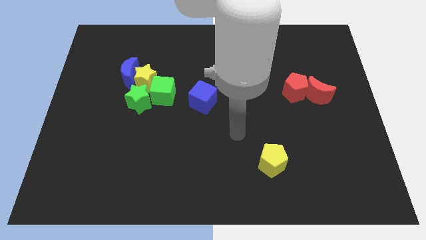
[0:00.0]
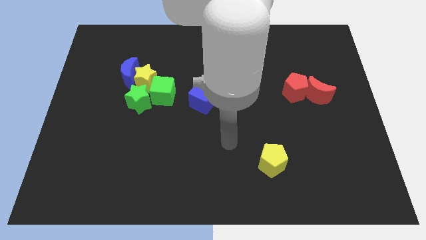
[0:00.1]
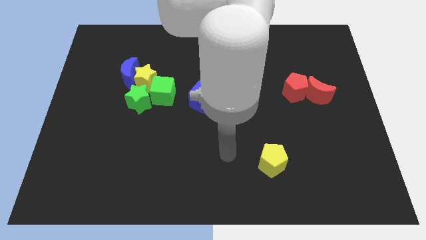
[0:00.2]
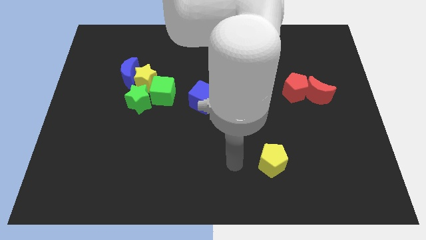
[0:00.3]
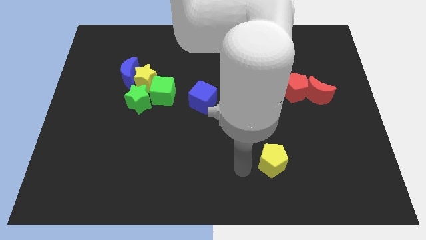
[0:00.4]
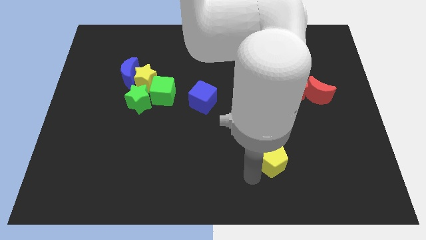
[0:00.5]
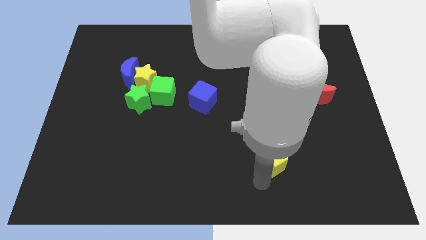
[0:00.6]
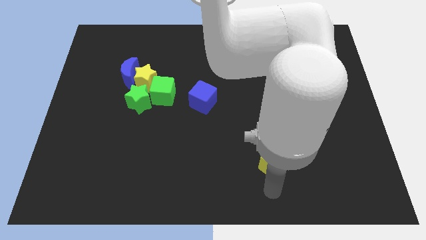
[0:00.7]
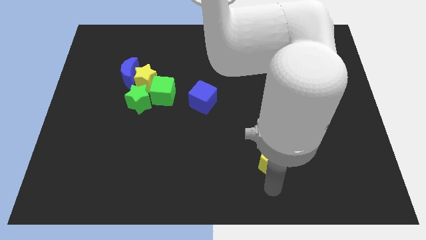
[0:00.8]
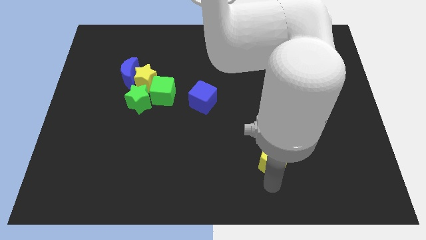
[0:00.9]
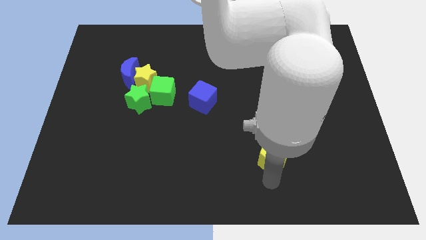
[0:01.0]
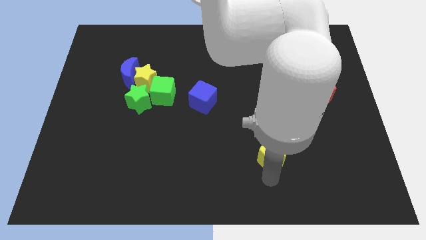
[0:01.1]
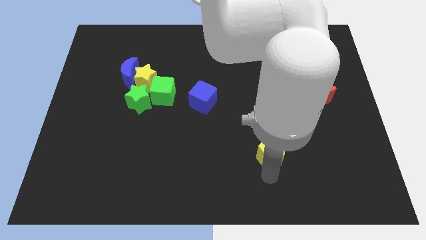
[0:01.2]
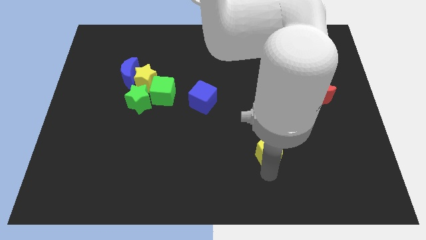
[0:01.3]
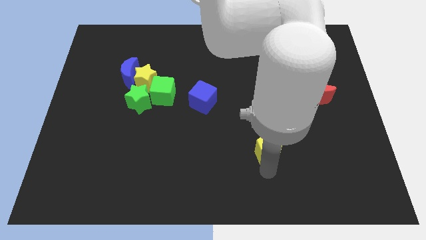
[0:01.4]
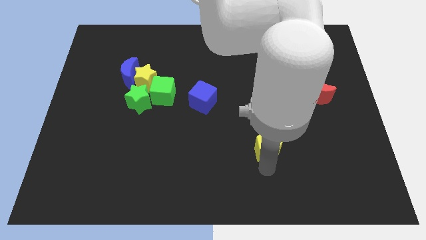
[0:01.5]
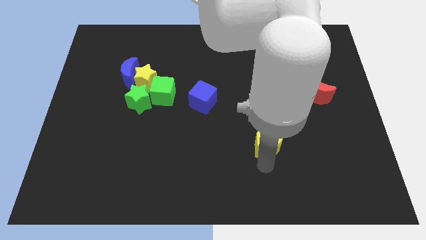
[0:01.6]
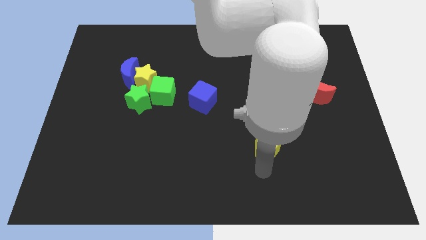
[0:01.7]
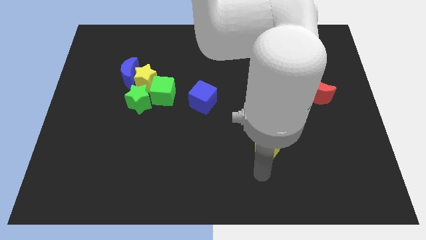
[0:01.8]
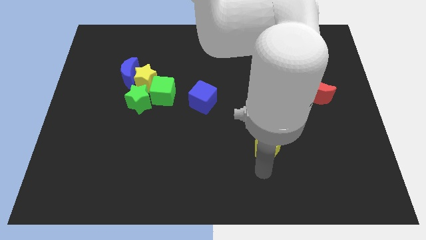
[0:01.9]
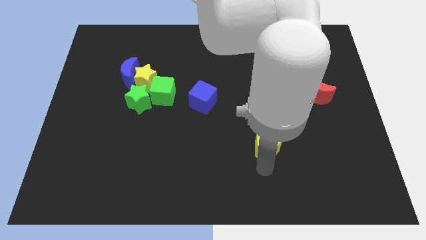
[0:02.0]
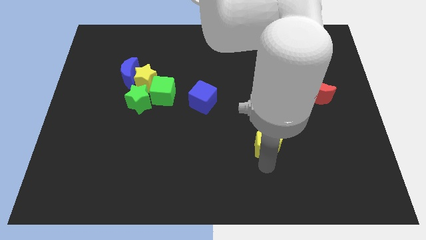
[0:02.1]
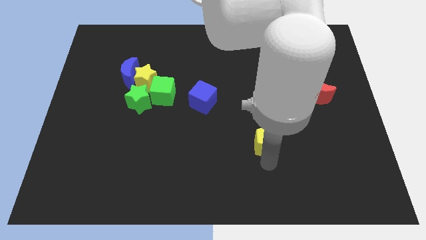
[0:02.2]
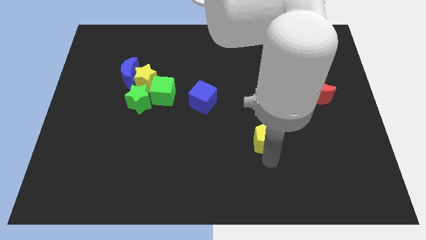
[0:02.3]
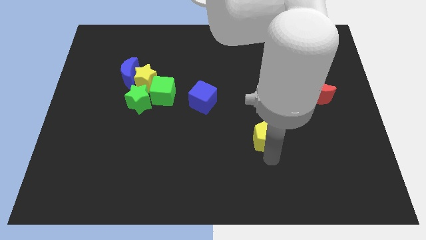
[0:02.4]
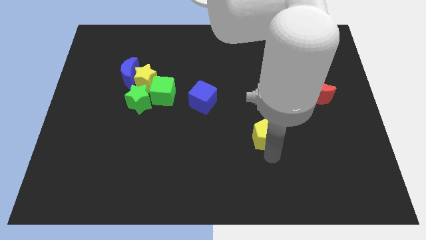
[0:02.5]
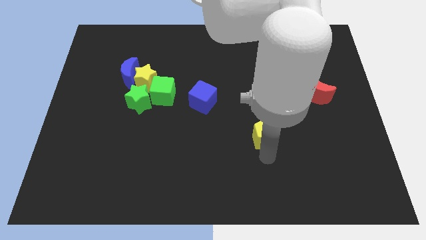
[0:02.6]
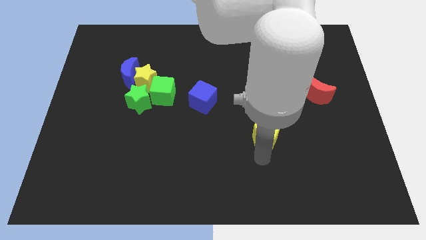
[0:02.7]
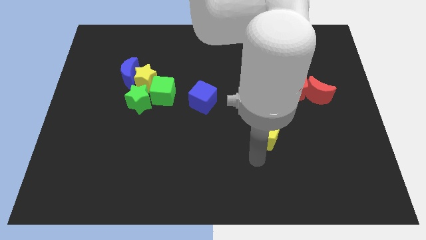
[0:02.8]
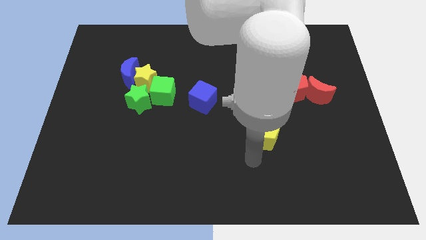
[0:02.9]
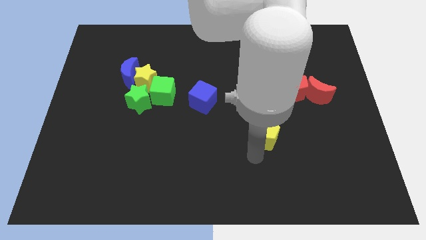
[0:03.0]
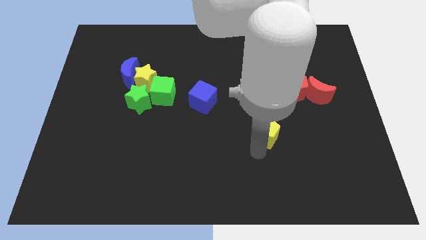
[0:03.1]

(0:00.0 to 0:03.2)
slide the yellow pentagon upwards a bit

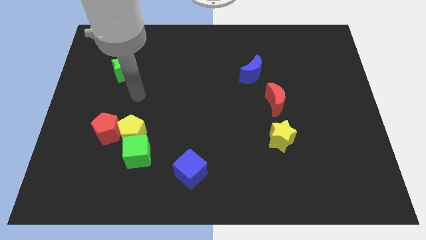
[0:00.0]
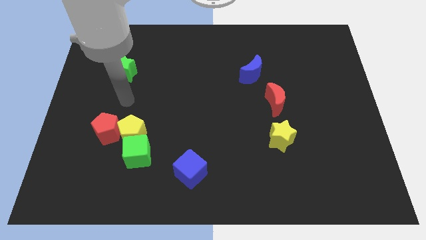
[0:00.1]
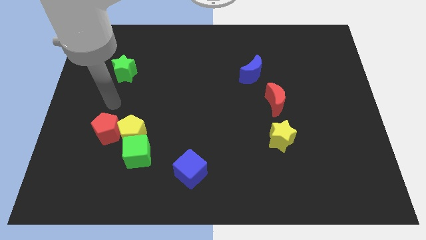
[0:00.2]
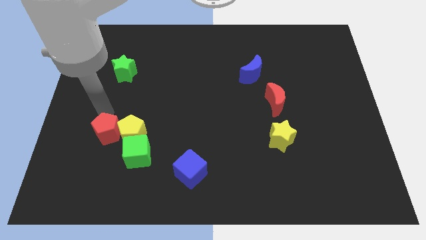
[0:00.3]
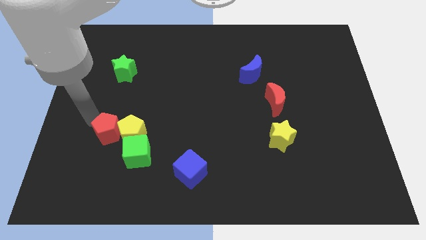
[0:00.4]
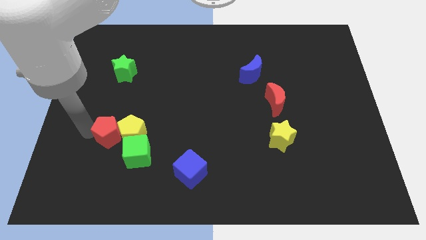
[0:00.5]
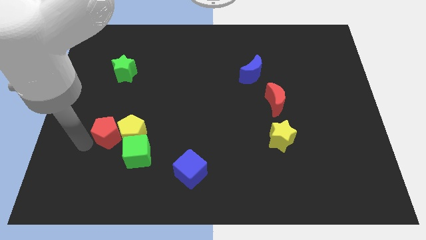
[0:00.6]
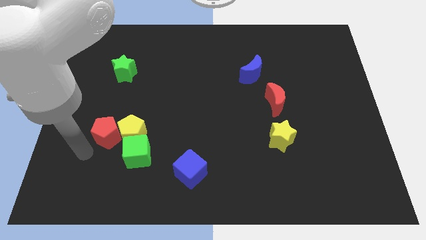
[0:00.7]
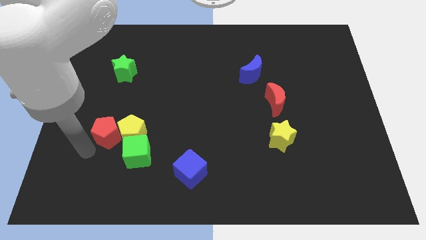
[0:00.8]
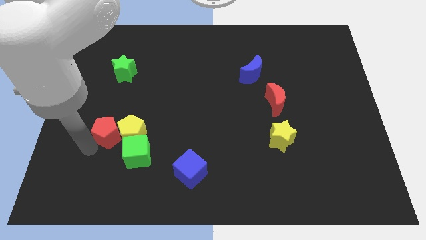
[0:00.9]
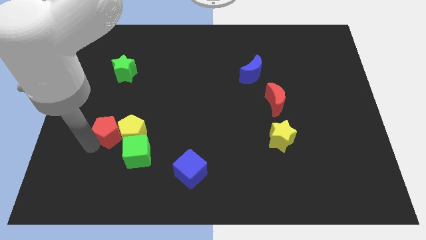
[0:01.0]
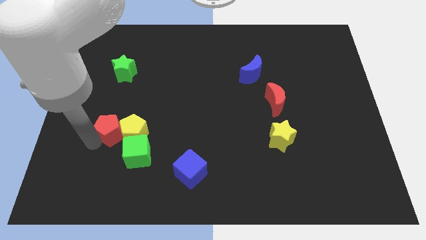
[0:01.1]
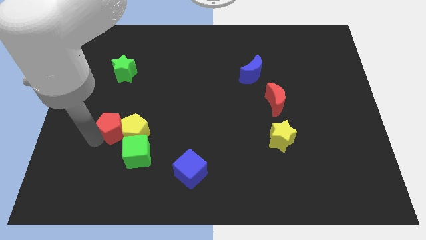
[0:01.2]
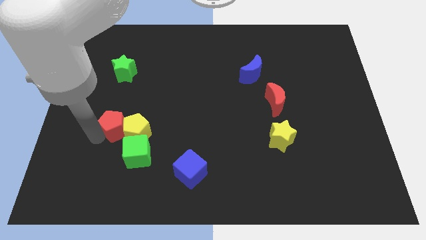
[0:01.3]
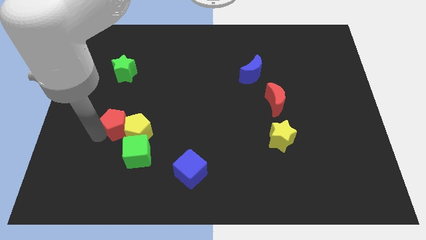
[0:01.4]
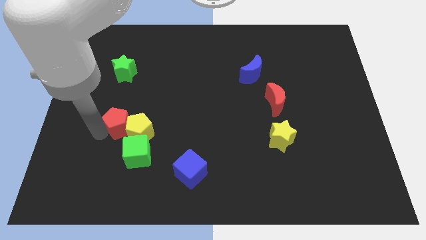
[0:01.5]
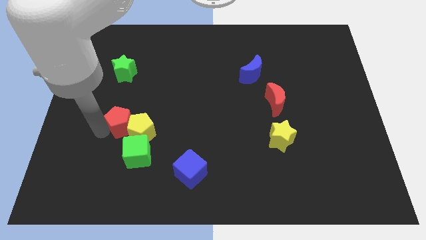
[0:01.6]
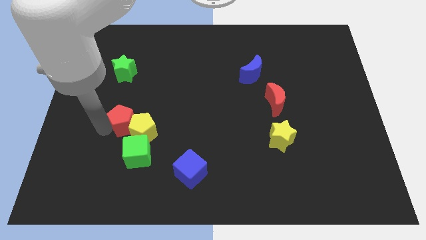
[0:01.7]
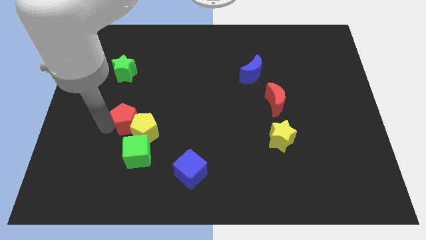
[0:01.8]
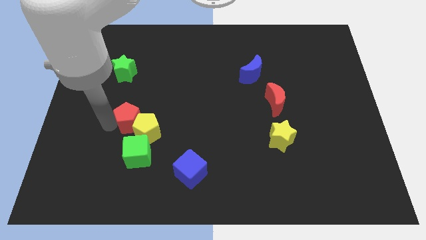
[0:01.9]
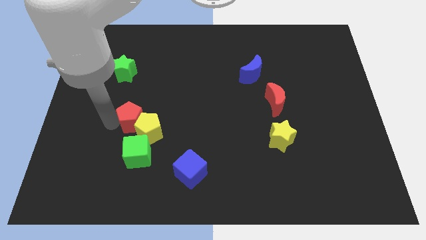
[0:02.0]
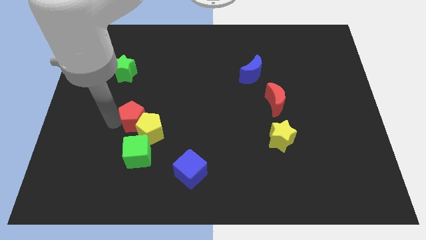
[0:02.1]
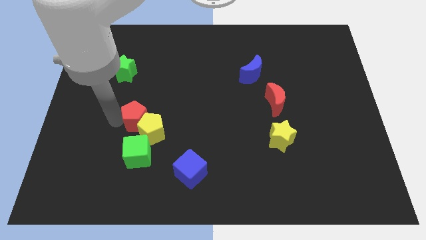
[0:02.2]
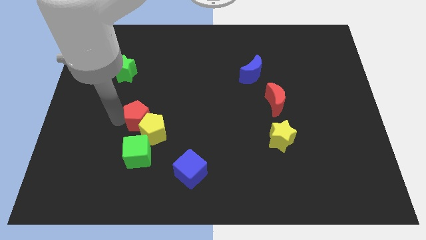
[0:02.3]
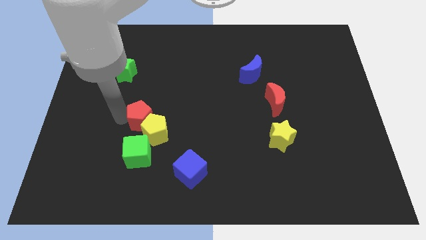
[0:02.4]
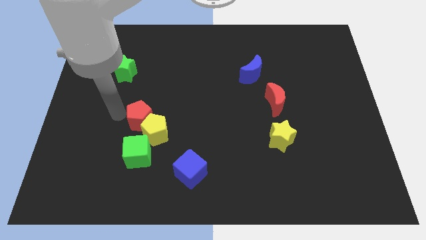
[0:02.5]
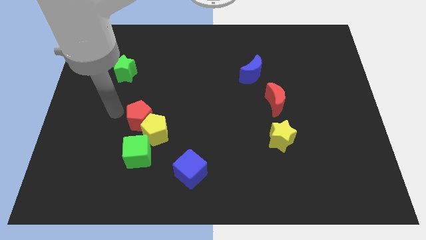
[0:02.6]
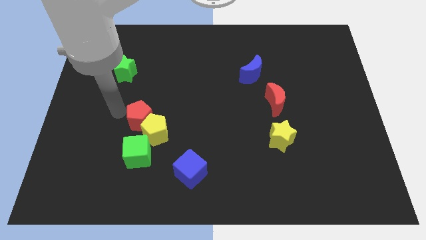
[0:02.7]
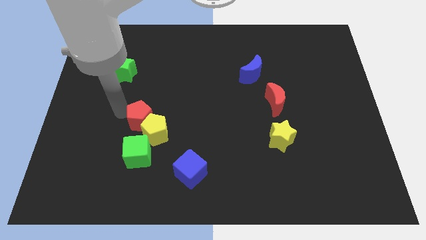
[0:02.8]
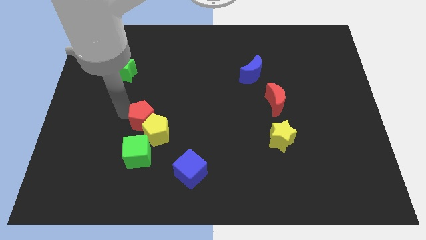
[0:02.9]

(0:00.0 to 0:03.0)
push the red pentagon to the right a little

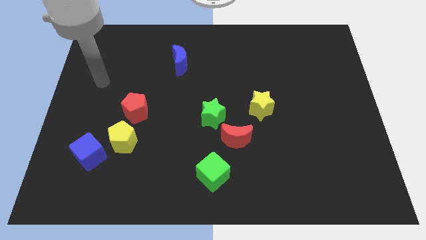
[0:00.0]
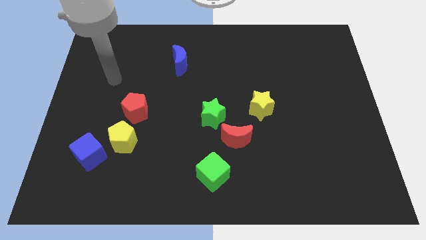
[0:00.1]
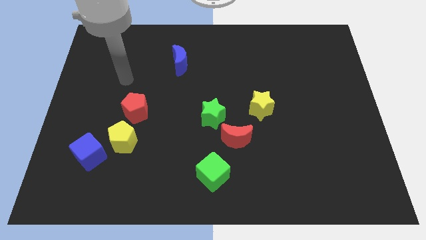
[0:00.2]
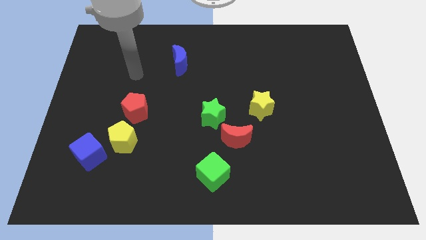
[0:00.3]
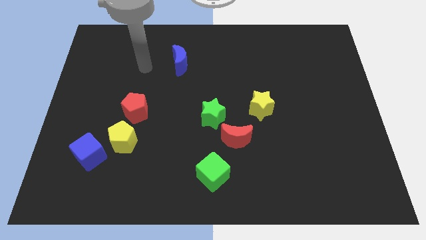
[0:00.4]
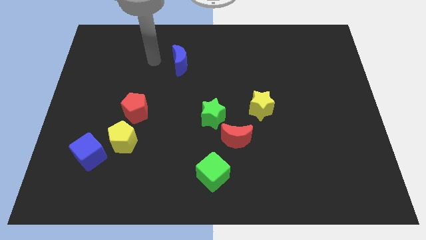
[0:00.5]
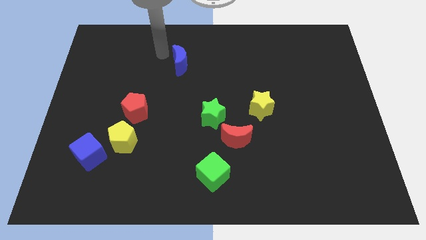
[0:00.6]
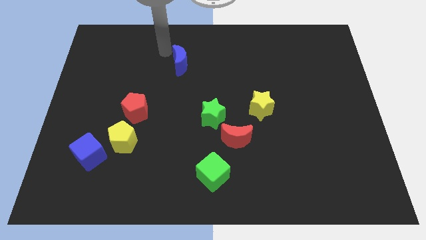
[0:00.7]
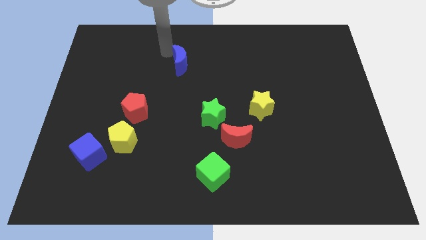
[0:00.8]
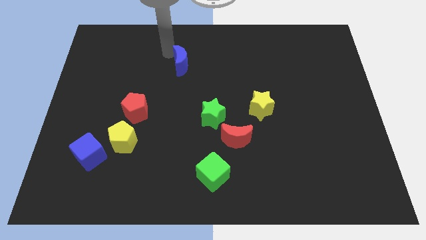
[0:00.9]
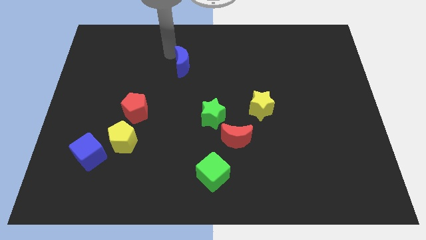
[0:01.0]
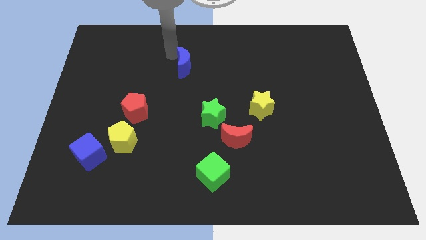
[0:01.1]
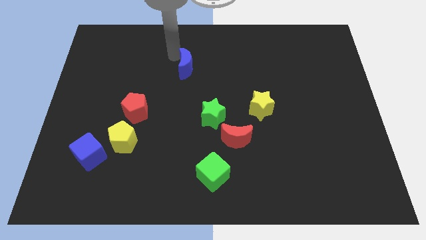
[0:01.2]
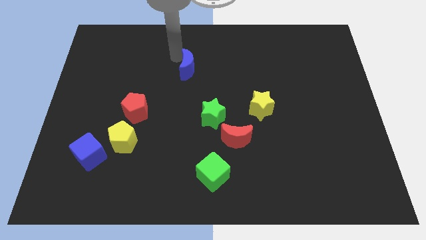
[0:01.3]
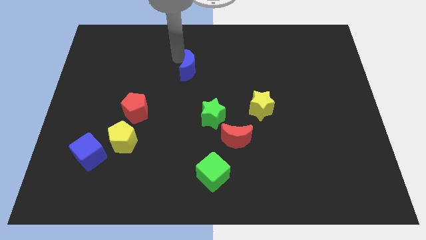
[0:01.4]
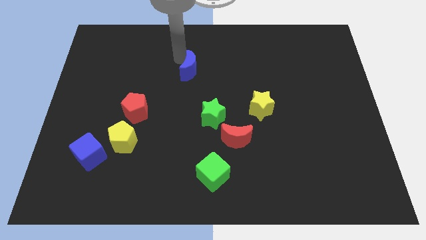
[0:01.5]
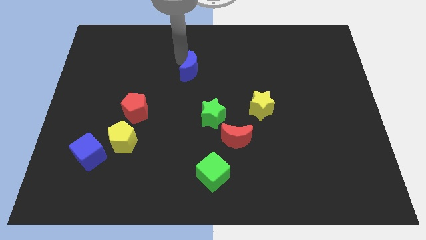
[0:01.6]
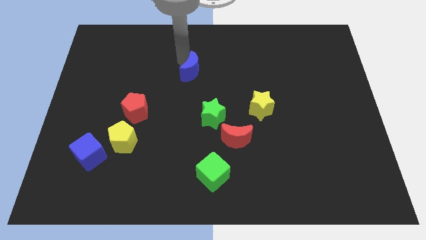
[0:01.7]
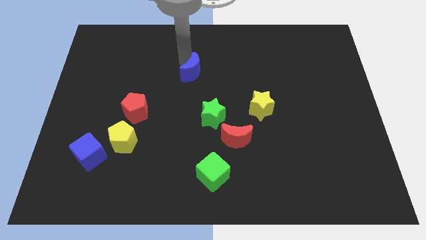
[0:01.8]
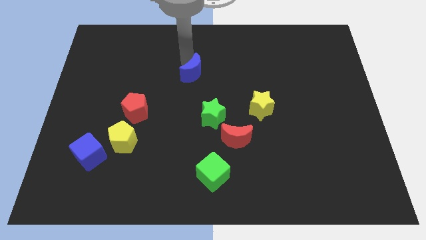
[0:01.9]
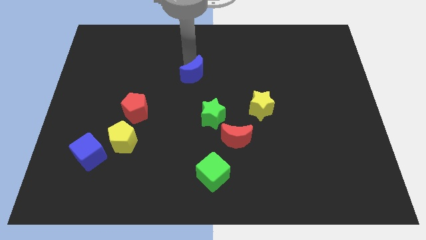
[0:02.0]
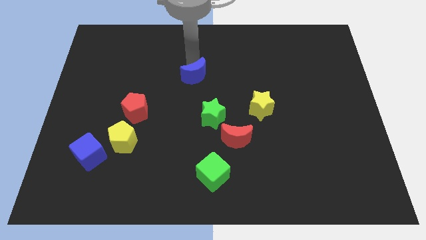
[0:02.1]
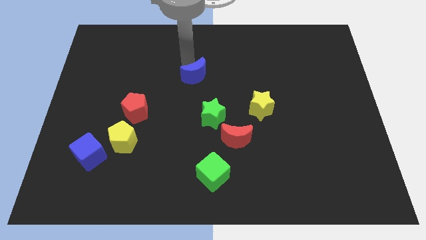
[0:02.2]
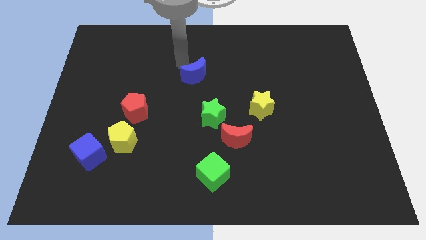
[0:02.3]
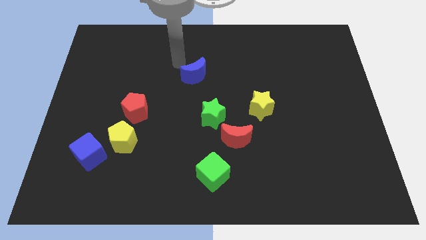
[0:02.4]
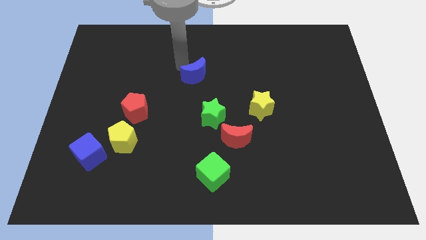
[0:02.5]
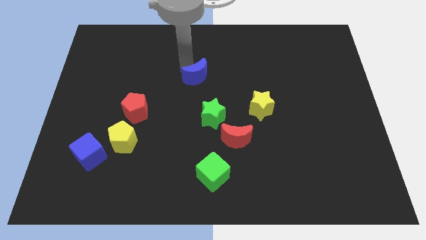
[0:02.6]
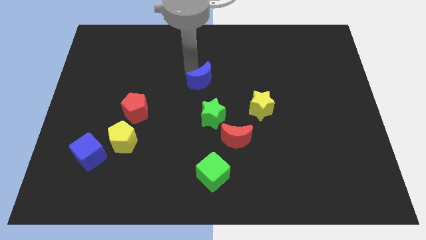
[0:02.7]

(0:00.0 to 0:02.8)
slightly move the blue moon downwards and to the right
